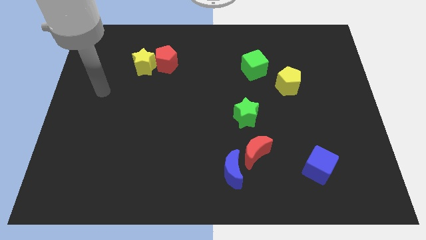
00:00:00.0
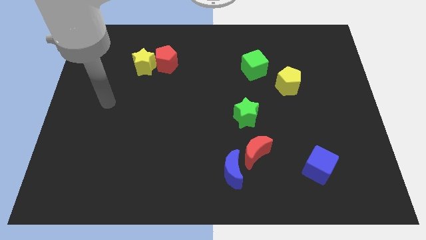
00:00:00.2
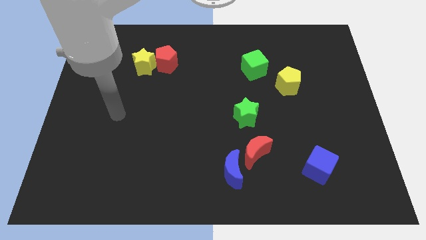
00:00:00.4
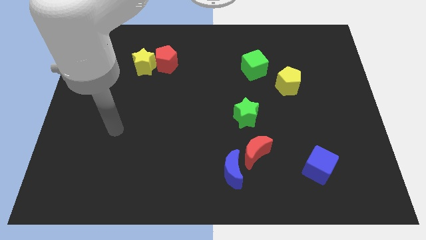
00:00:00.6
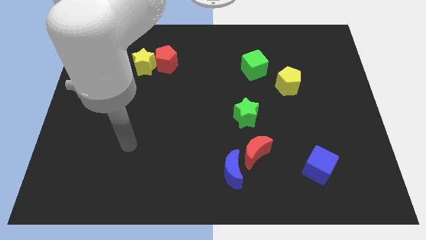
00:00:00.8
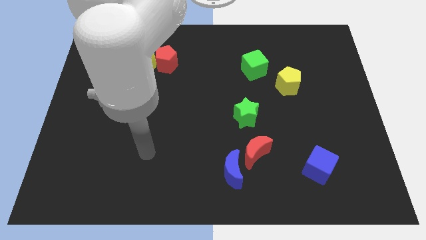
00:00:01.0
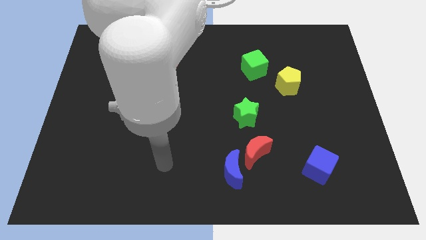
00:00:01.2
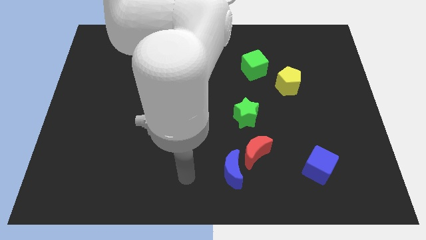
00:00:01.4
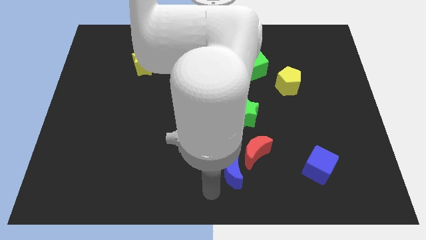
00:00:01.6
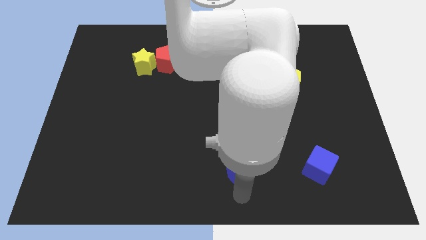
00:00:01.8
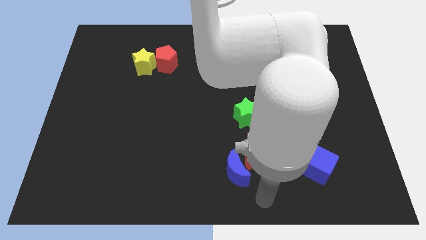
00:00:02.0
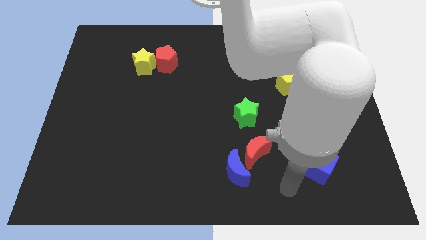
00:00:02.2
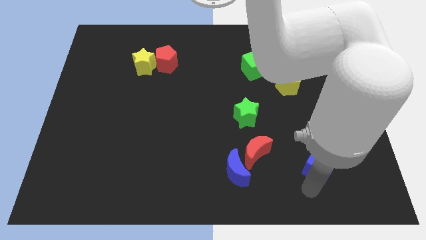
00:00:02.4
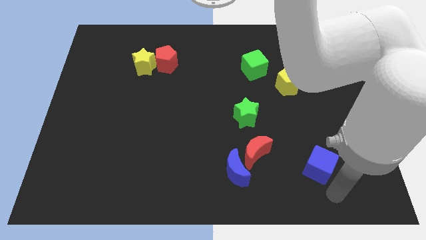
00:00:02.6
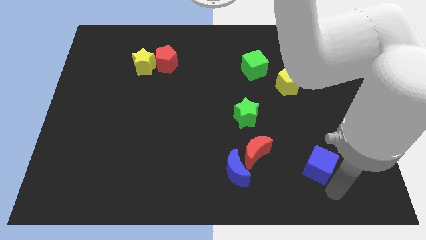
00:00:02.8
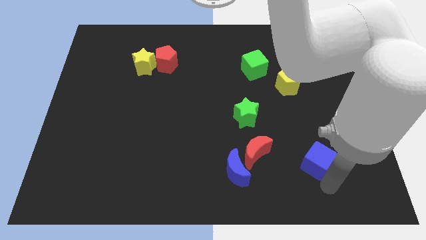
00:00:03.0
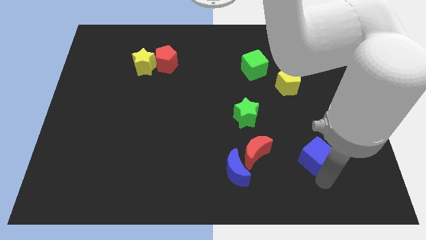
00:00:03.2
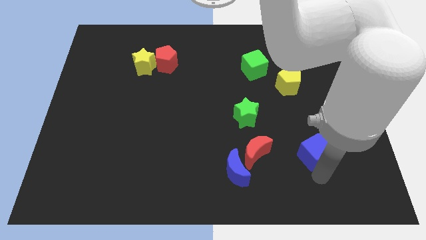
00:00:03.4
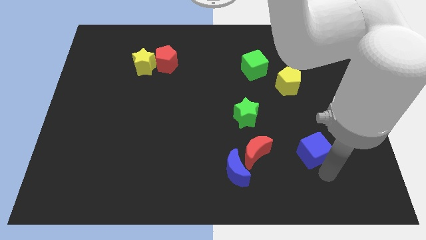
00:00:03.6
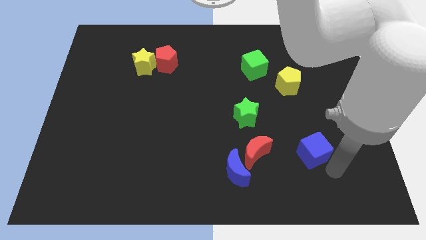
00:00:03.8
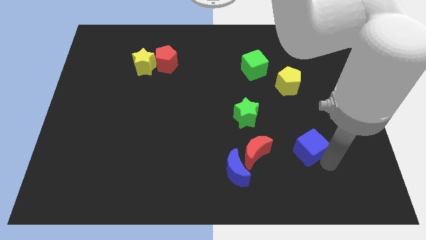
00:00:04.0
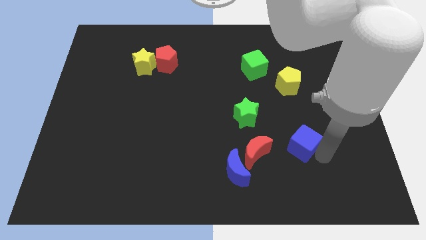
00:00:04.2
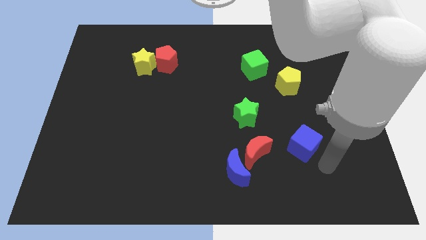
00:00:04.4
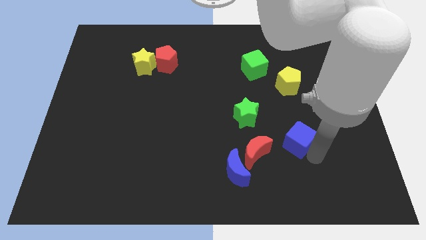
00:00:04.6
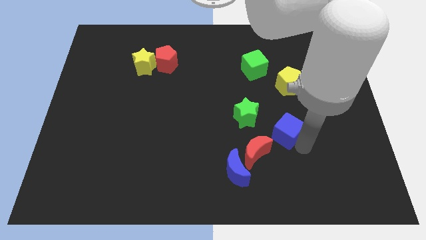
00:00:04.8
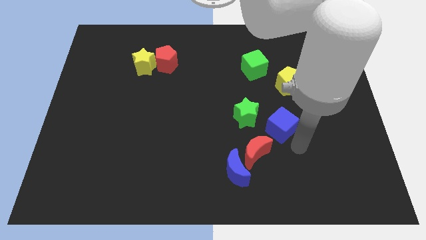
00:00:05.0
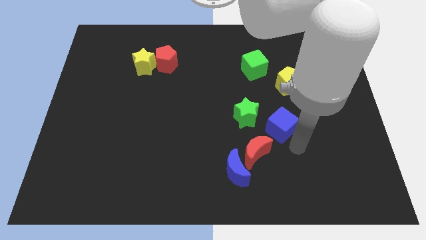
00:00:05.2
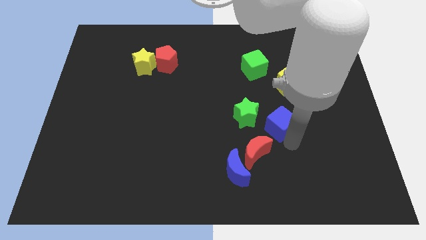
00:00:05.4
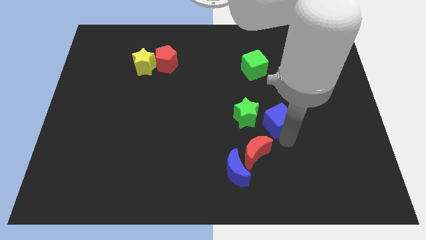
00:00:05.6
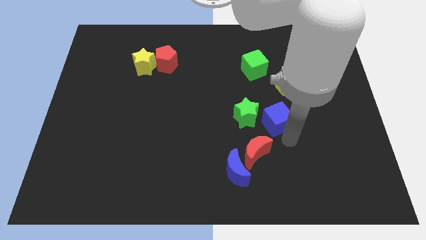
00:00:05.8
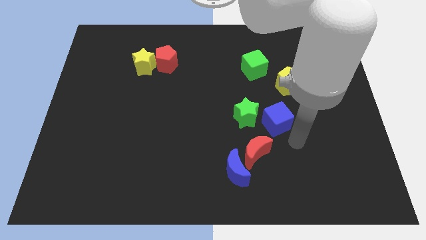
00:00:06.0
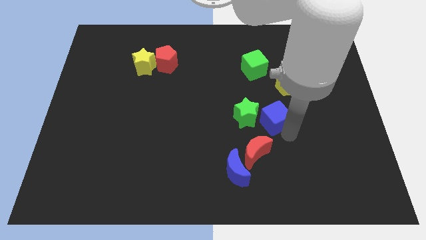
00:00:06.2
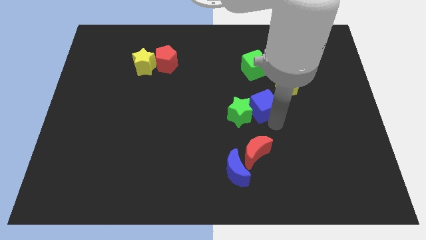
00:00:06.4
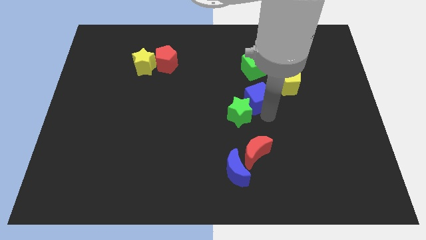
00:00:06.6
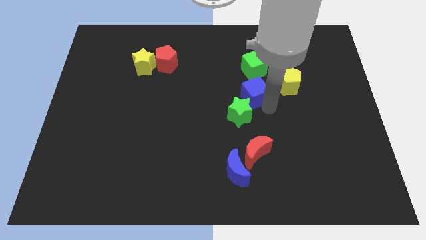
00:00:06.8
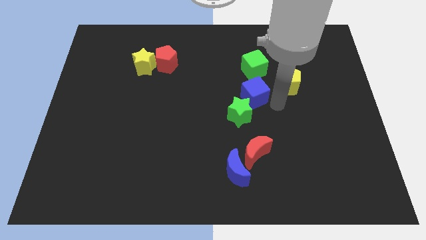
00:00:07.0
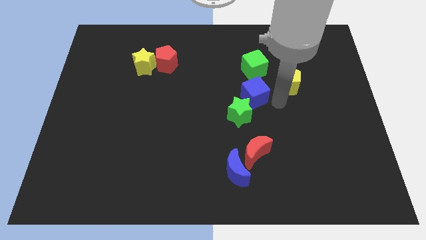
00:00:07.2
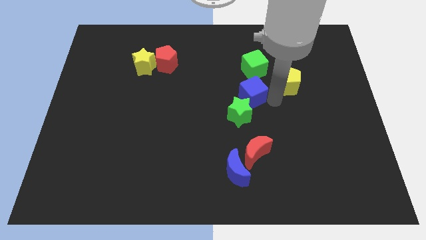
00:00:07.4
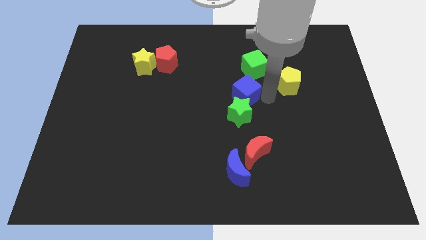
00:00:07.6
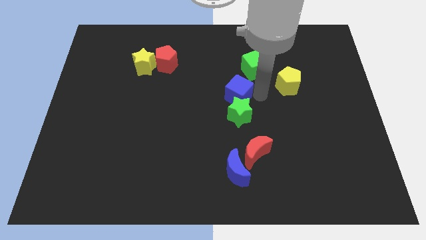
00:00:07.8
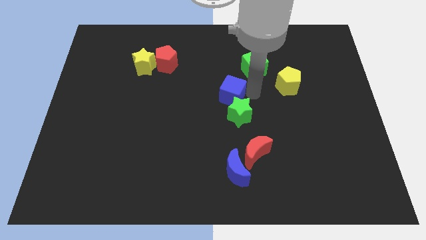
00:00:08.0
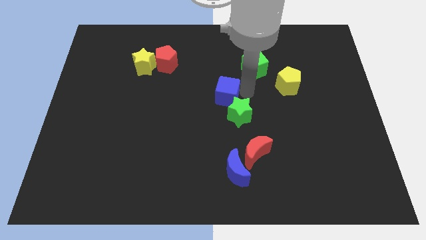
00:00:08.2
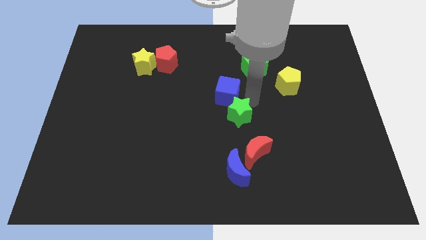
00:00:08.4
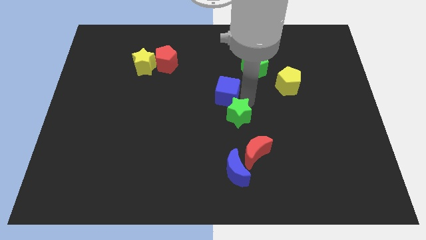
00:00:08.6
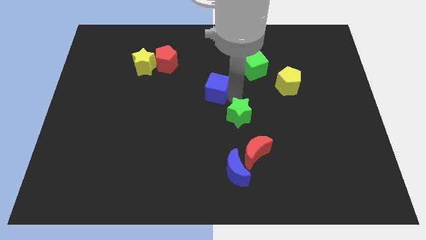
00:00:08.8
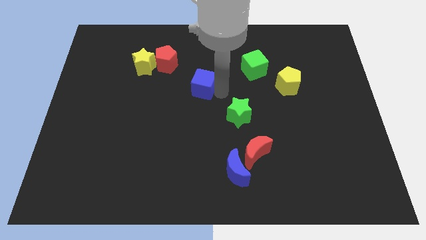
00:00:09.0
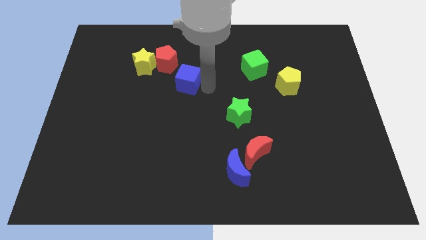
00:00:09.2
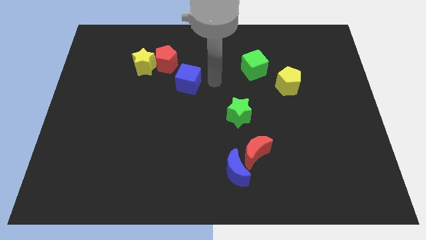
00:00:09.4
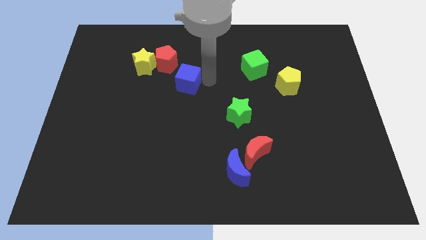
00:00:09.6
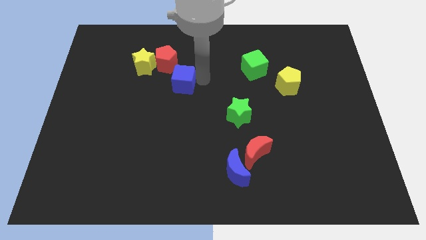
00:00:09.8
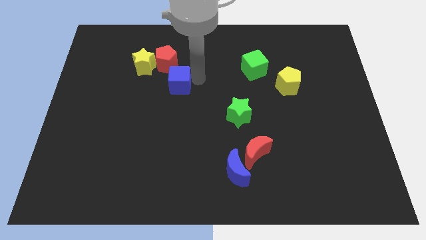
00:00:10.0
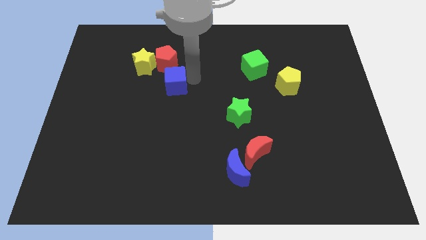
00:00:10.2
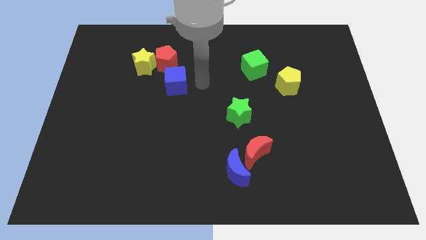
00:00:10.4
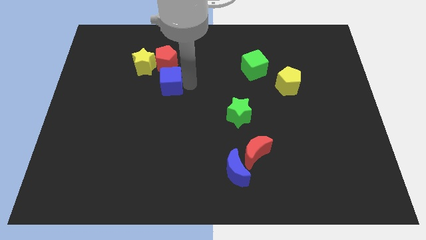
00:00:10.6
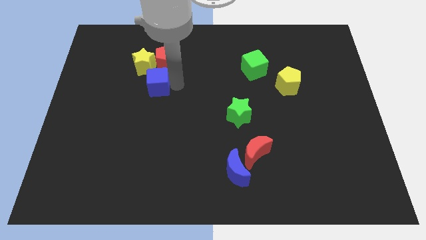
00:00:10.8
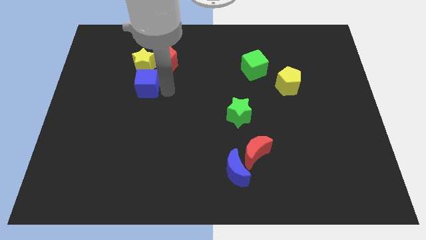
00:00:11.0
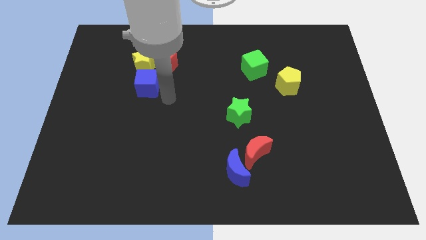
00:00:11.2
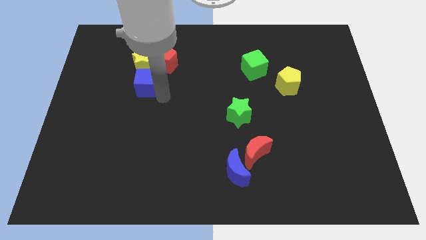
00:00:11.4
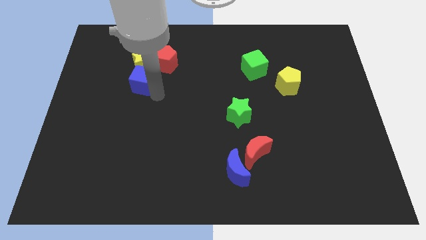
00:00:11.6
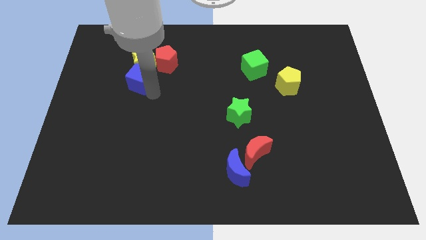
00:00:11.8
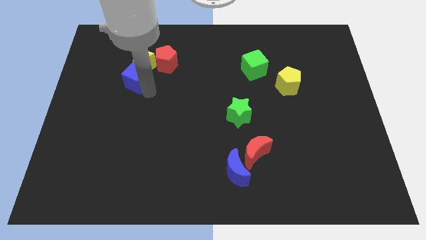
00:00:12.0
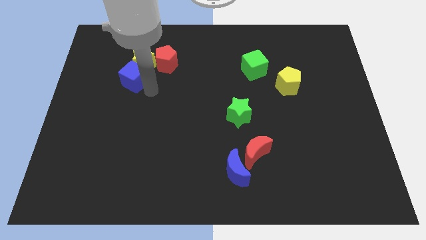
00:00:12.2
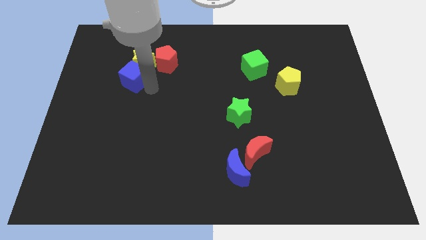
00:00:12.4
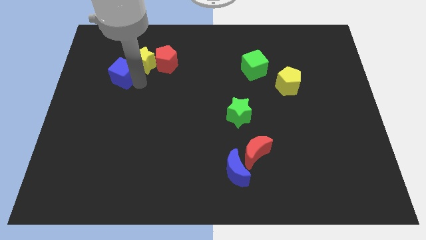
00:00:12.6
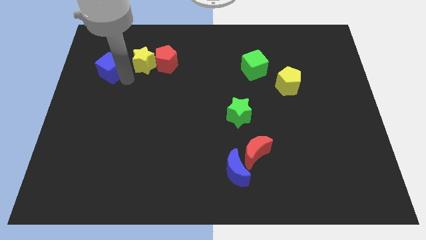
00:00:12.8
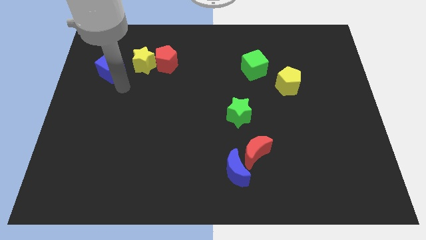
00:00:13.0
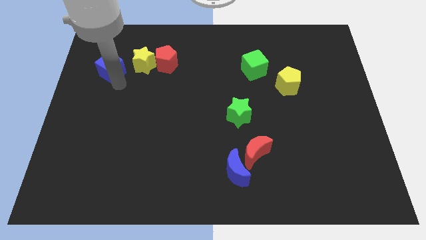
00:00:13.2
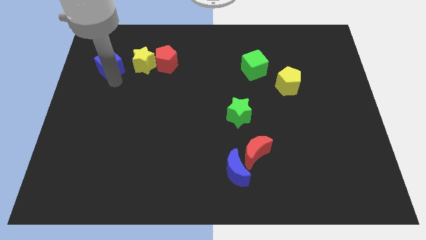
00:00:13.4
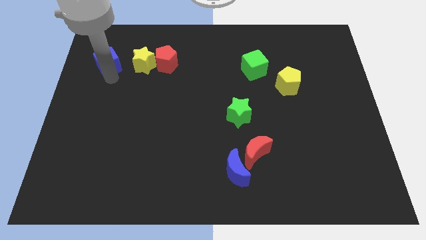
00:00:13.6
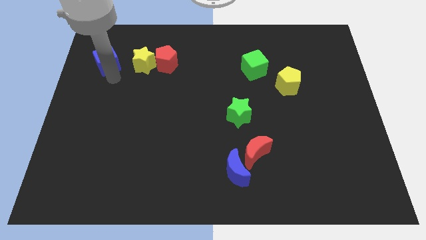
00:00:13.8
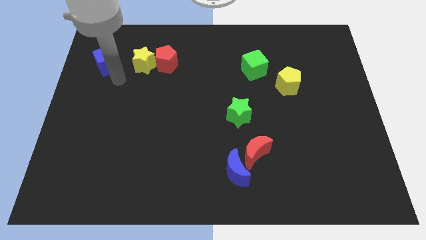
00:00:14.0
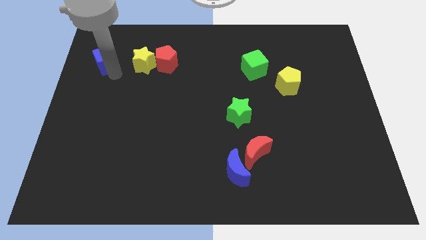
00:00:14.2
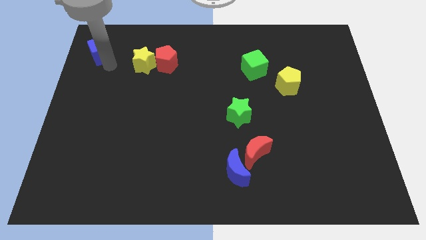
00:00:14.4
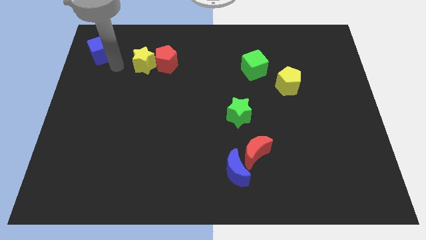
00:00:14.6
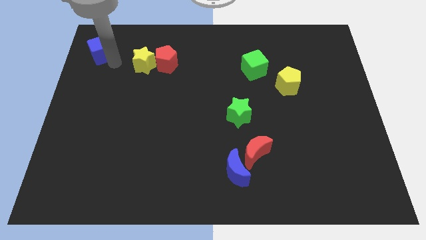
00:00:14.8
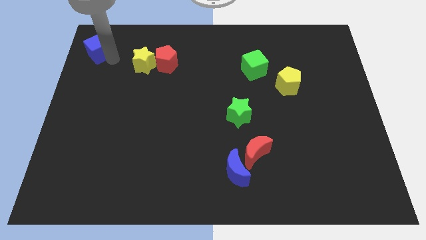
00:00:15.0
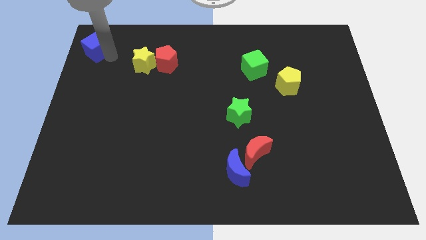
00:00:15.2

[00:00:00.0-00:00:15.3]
put the blue cube to the top left of the board
